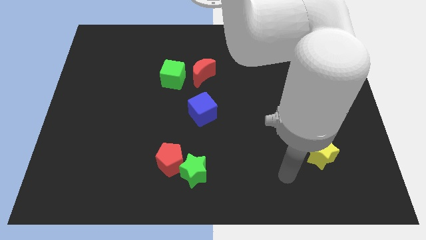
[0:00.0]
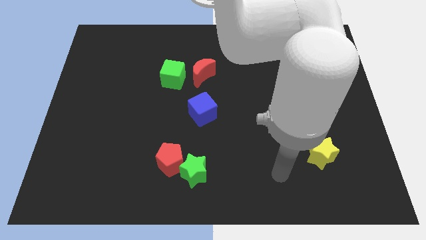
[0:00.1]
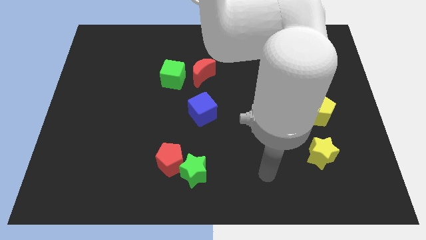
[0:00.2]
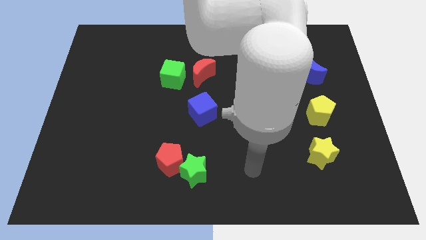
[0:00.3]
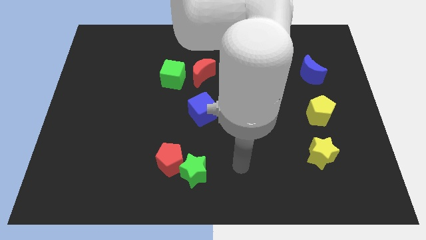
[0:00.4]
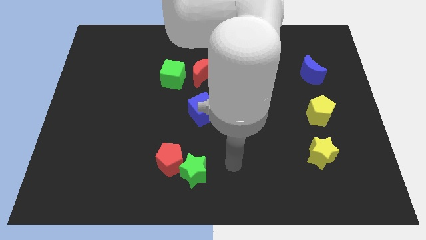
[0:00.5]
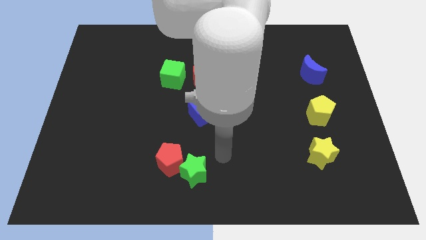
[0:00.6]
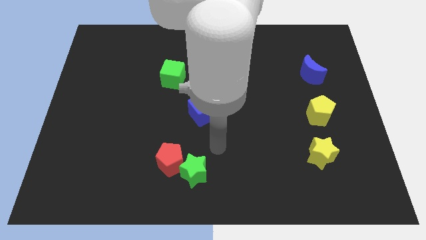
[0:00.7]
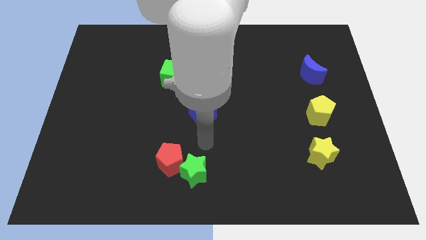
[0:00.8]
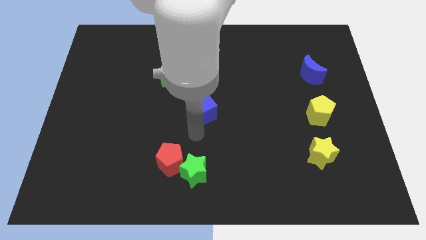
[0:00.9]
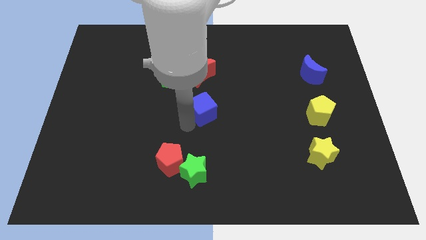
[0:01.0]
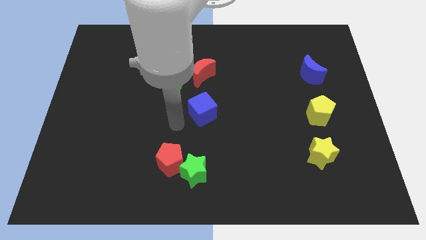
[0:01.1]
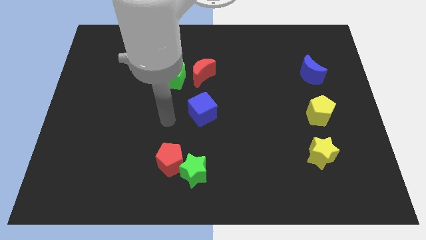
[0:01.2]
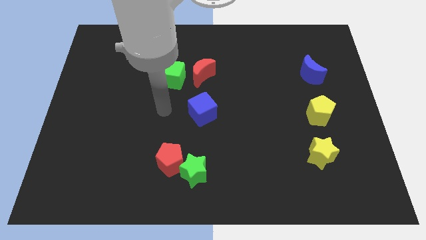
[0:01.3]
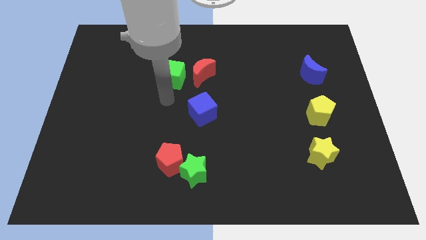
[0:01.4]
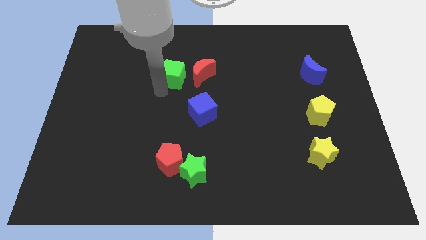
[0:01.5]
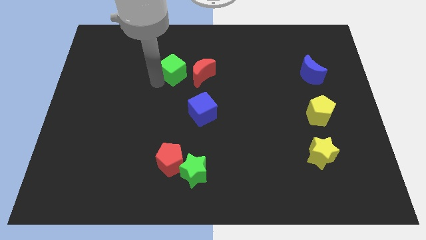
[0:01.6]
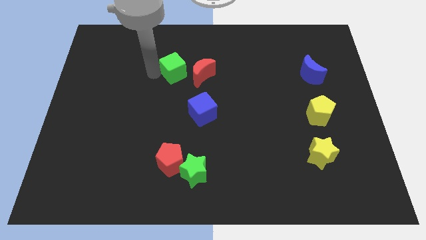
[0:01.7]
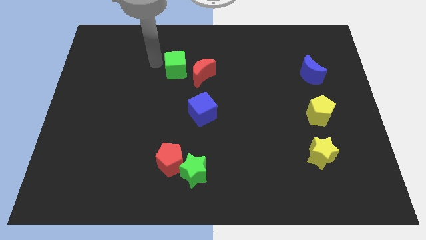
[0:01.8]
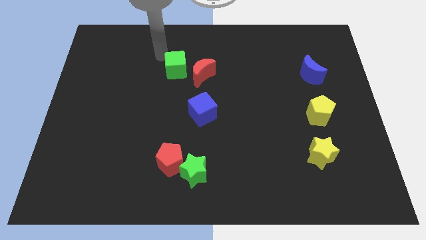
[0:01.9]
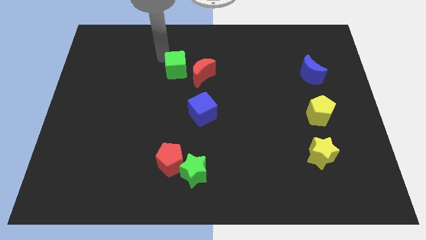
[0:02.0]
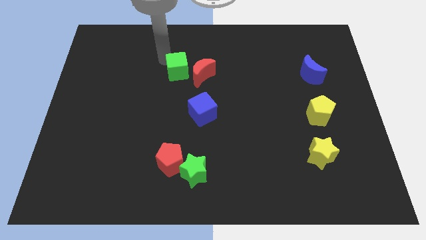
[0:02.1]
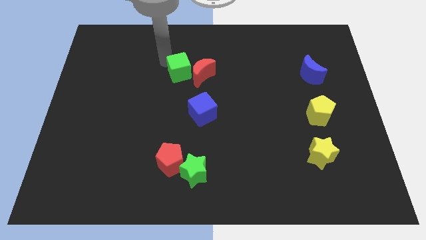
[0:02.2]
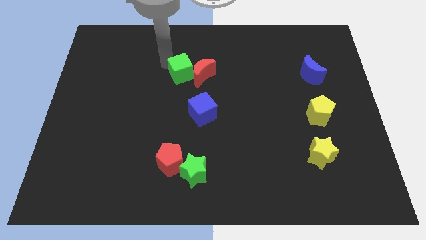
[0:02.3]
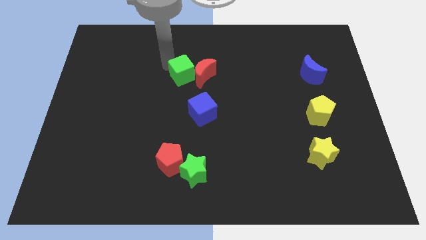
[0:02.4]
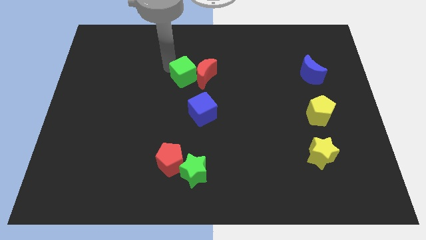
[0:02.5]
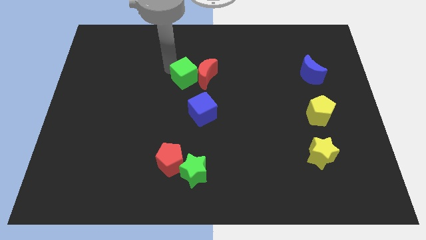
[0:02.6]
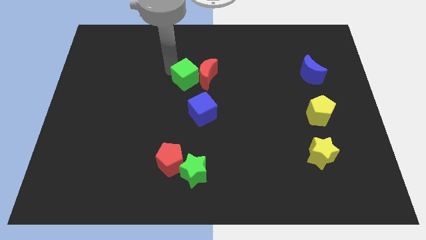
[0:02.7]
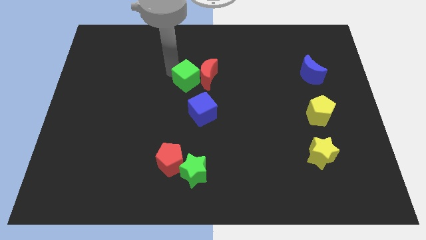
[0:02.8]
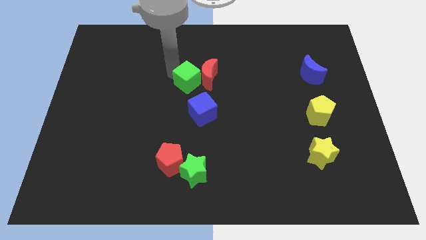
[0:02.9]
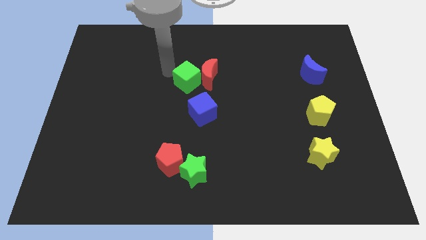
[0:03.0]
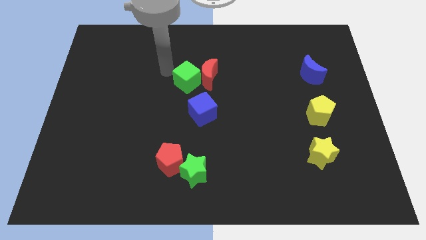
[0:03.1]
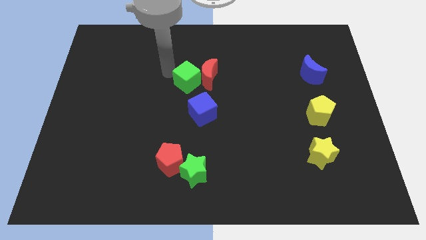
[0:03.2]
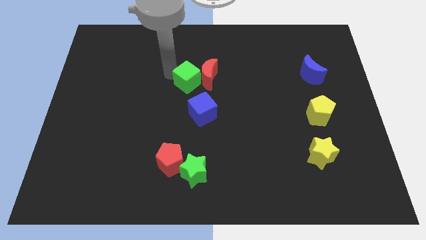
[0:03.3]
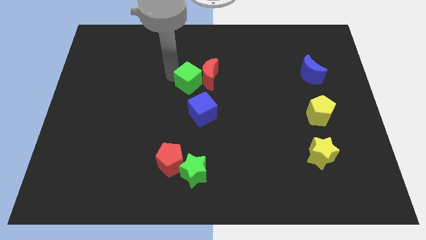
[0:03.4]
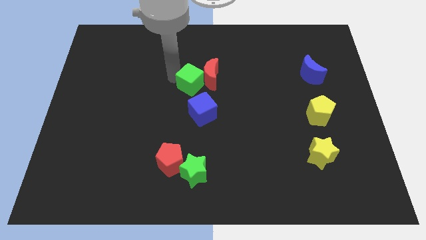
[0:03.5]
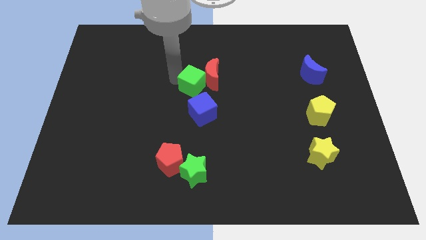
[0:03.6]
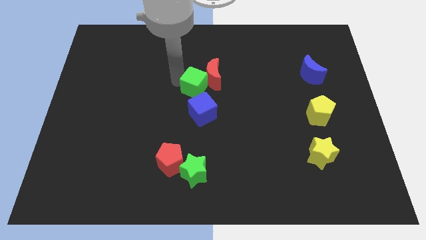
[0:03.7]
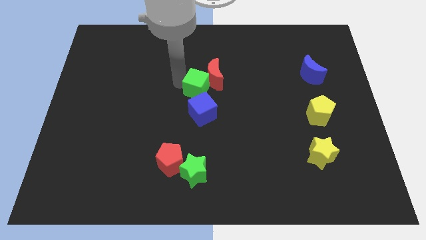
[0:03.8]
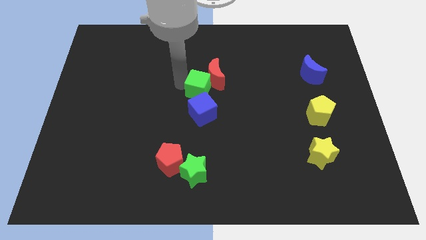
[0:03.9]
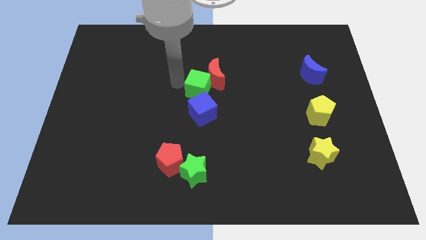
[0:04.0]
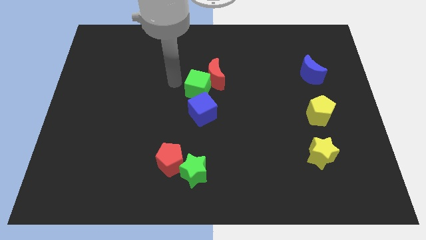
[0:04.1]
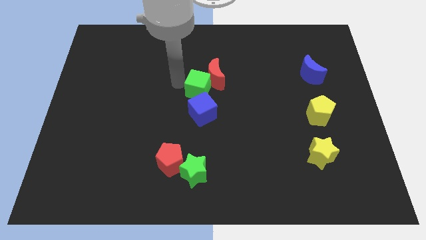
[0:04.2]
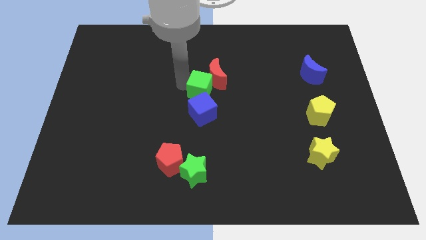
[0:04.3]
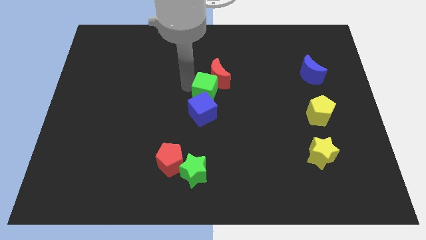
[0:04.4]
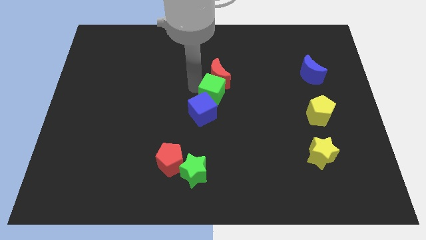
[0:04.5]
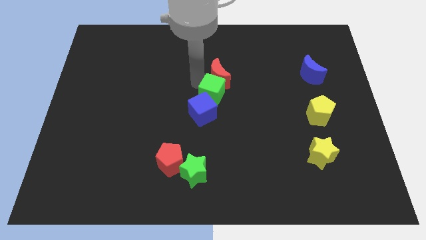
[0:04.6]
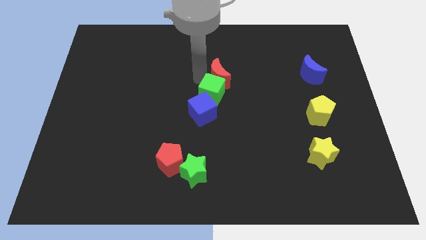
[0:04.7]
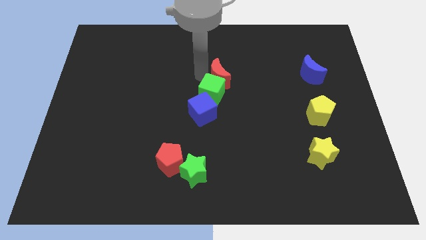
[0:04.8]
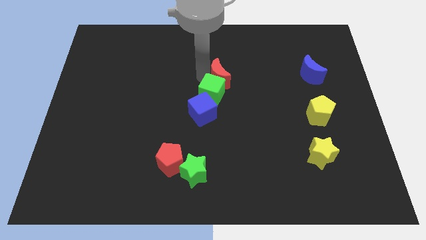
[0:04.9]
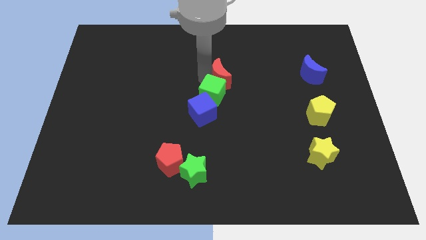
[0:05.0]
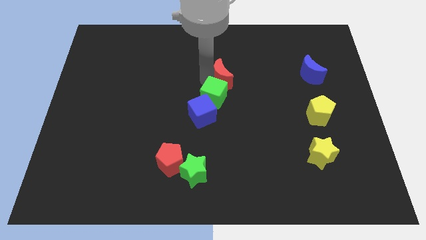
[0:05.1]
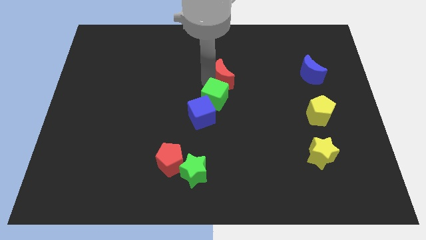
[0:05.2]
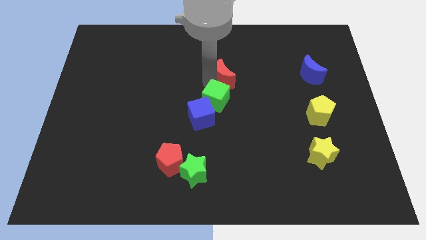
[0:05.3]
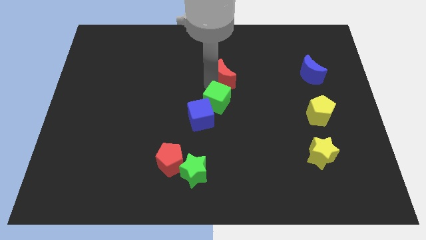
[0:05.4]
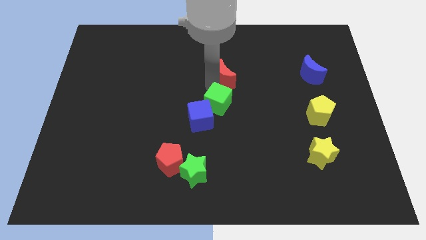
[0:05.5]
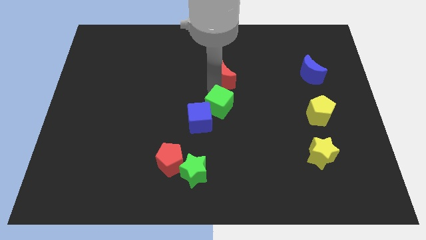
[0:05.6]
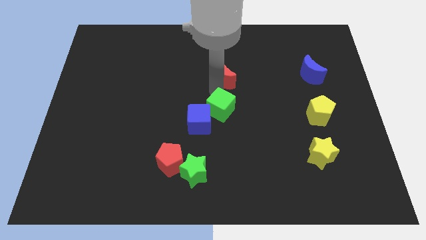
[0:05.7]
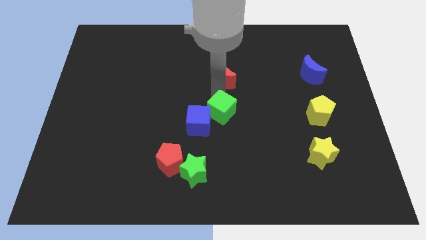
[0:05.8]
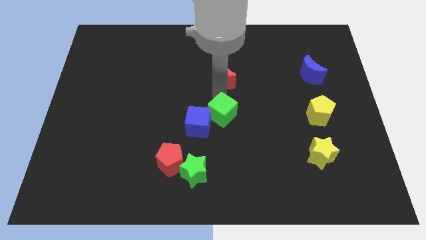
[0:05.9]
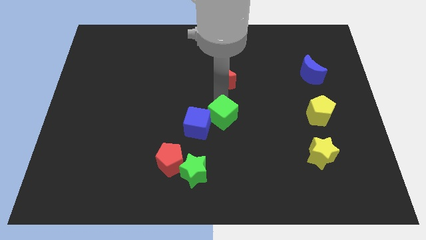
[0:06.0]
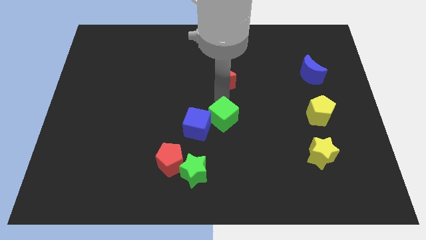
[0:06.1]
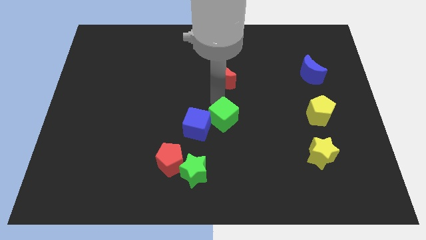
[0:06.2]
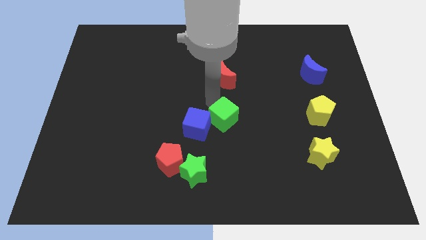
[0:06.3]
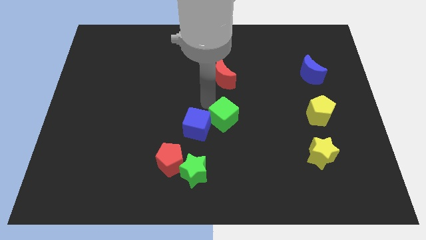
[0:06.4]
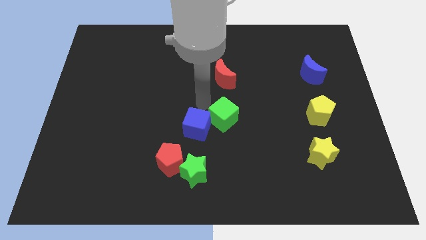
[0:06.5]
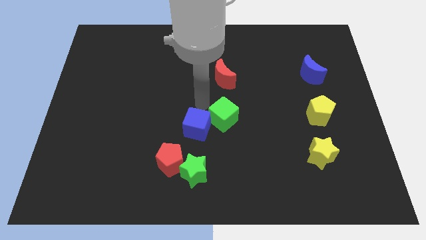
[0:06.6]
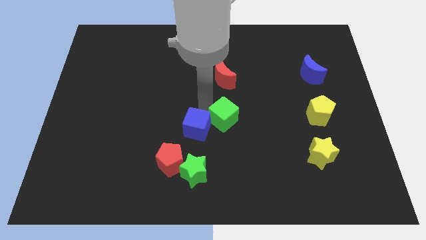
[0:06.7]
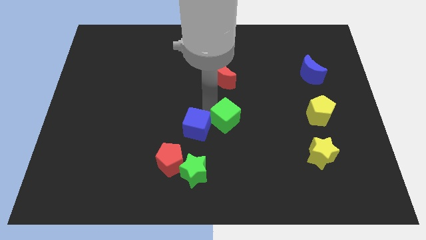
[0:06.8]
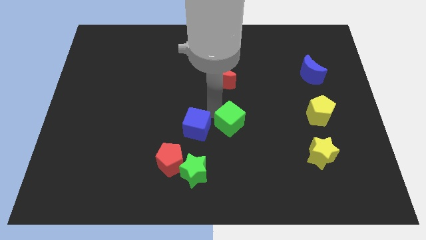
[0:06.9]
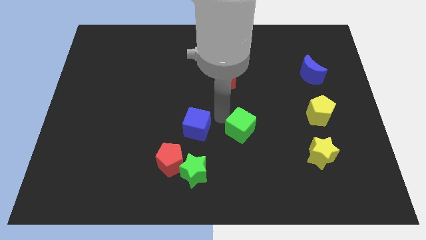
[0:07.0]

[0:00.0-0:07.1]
slide the green cube downwards and then right

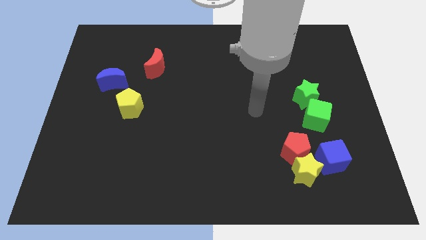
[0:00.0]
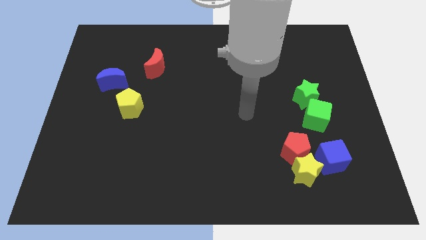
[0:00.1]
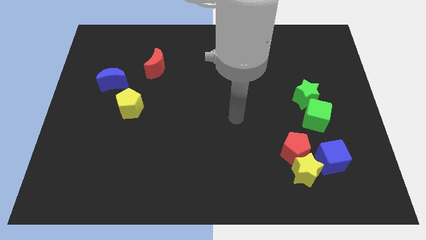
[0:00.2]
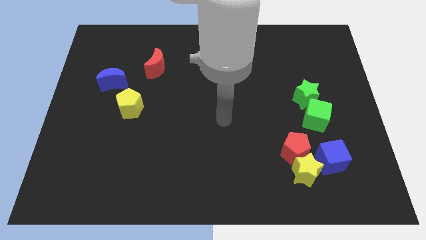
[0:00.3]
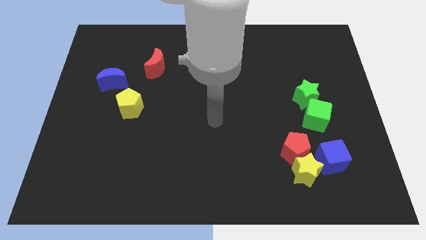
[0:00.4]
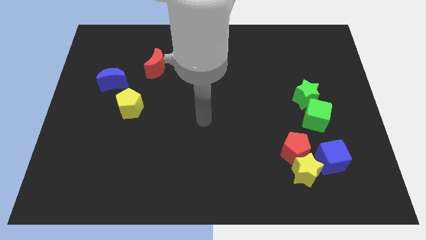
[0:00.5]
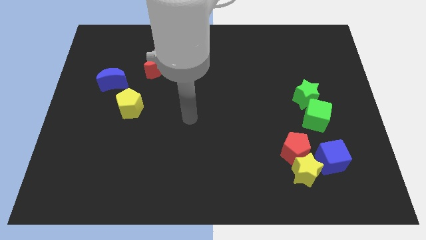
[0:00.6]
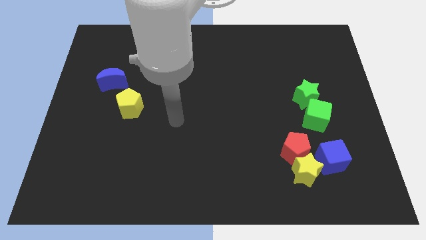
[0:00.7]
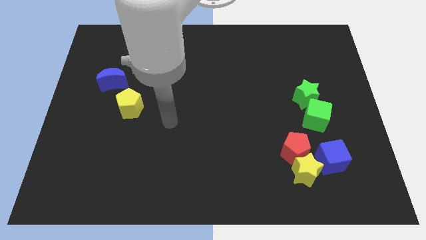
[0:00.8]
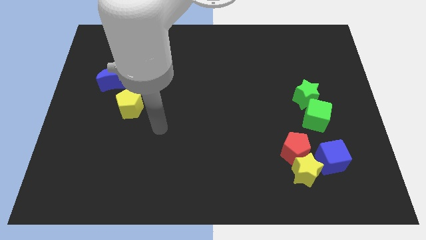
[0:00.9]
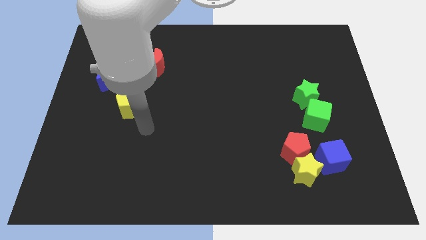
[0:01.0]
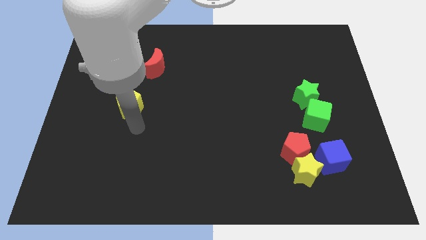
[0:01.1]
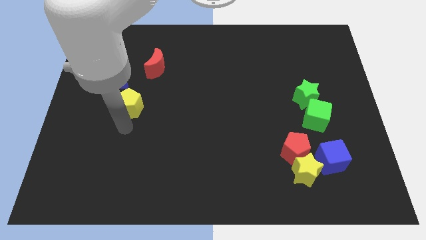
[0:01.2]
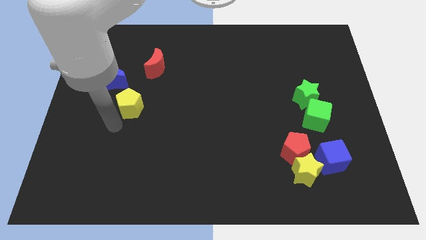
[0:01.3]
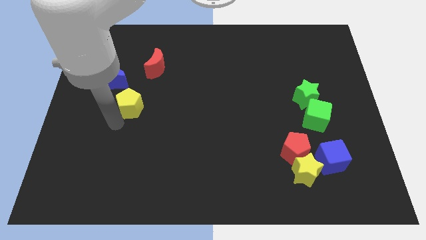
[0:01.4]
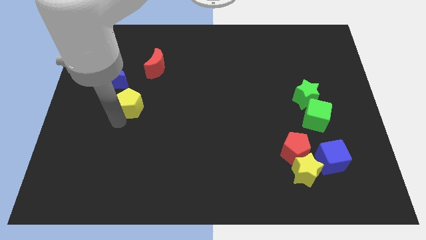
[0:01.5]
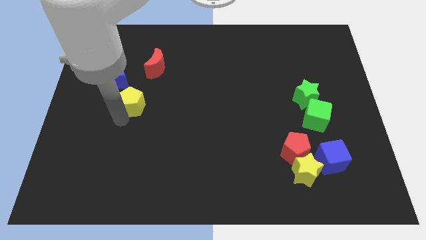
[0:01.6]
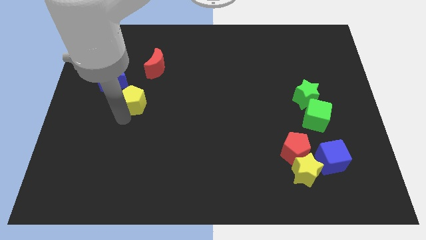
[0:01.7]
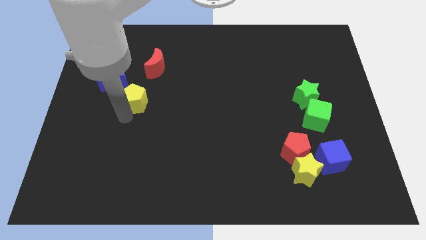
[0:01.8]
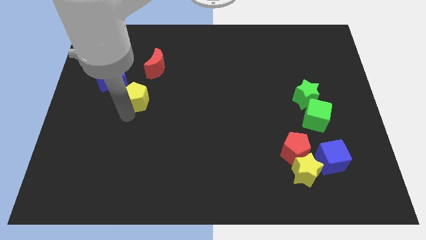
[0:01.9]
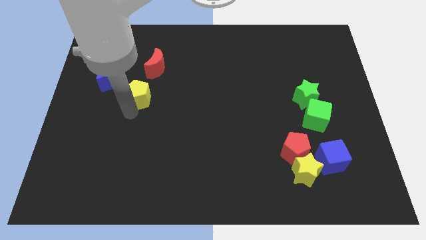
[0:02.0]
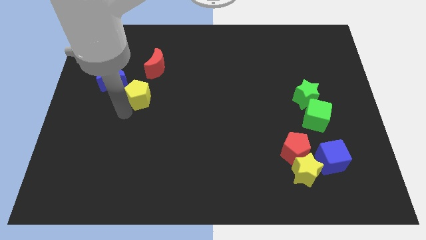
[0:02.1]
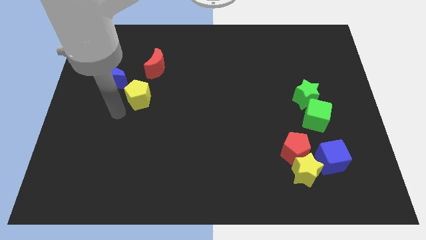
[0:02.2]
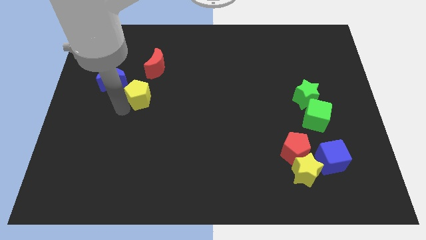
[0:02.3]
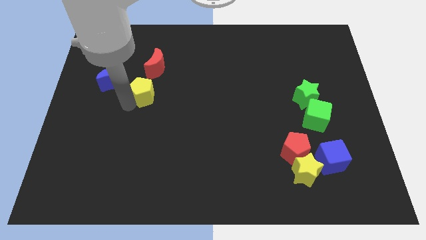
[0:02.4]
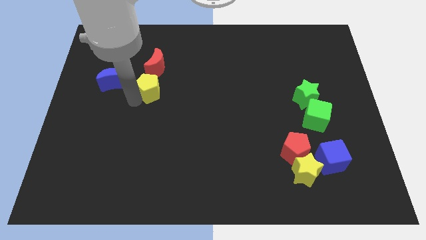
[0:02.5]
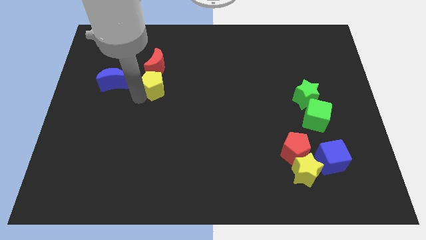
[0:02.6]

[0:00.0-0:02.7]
slightly push the yellow pentagon diagonally up and right
